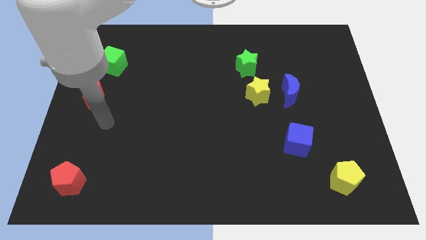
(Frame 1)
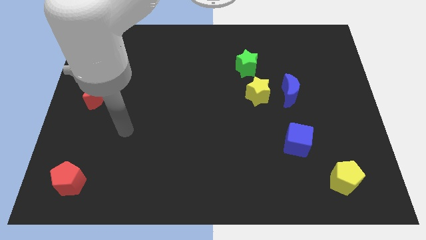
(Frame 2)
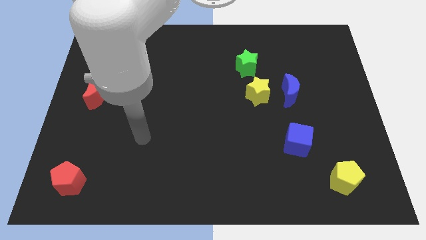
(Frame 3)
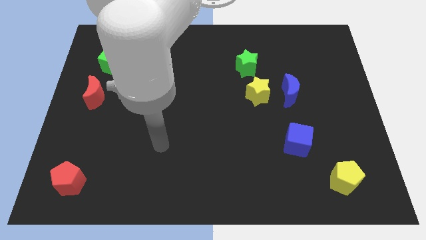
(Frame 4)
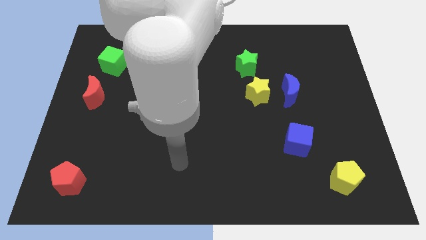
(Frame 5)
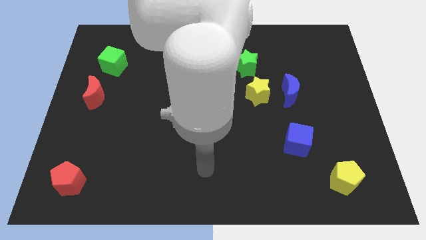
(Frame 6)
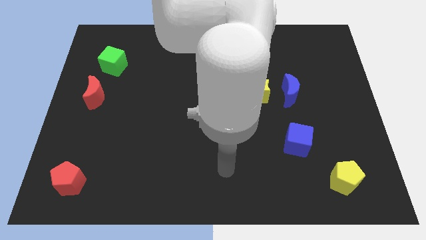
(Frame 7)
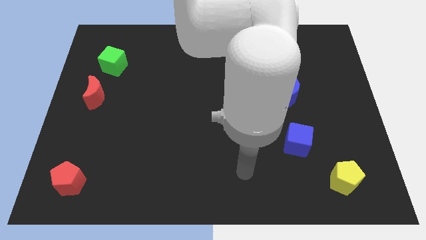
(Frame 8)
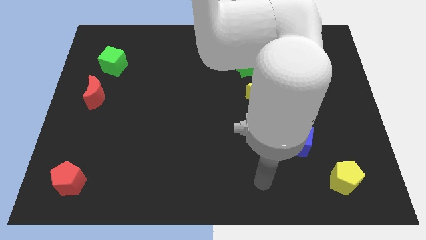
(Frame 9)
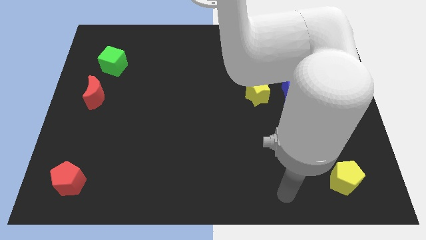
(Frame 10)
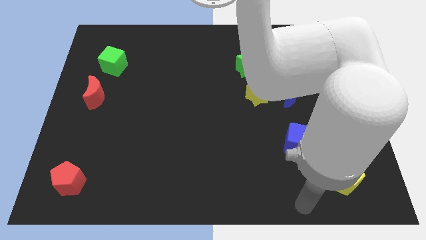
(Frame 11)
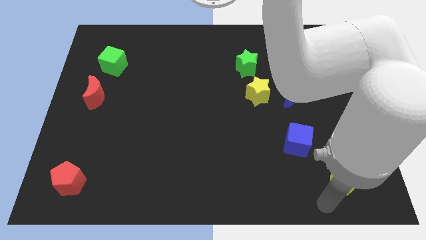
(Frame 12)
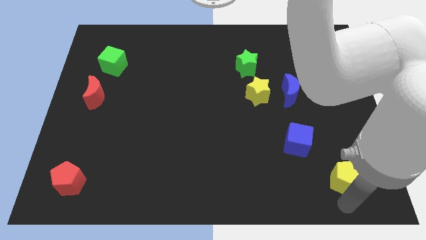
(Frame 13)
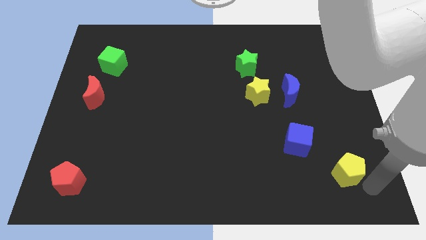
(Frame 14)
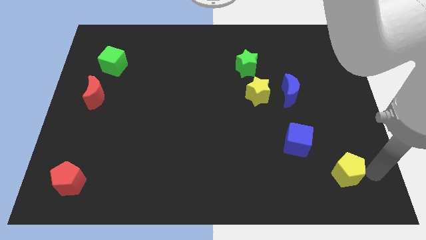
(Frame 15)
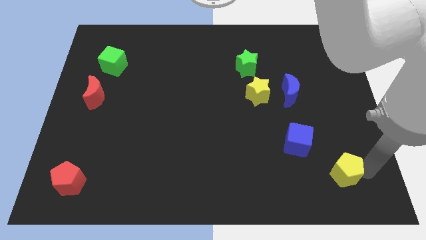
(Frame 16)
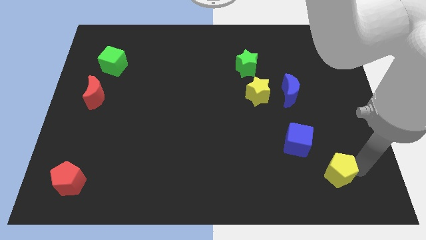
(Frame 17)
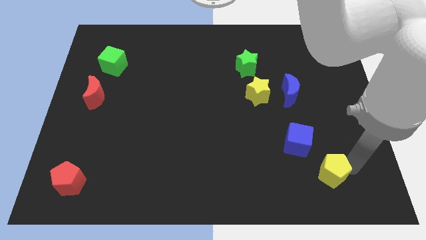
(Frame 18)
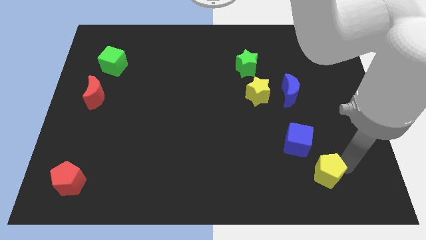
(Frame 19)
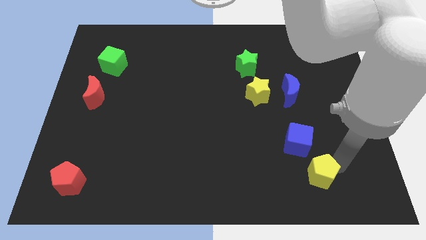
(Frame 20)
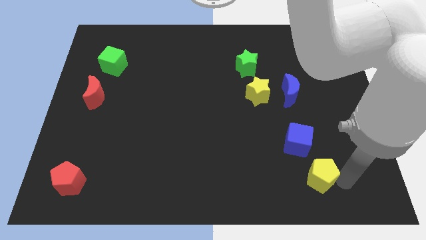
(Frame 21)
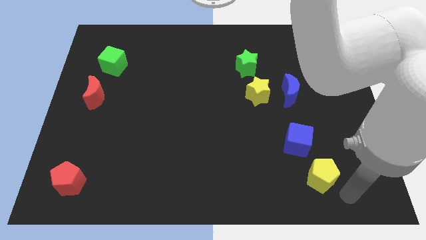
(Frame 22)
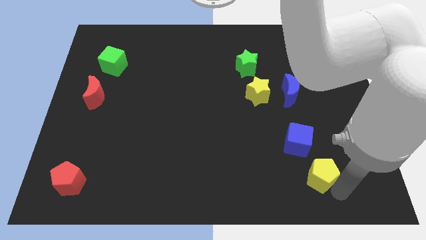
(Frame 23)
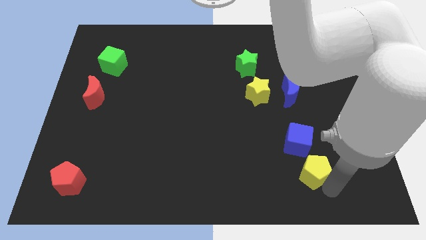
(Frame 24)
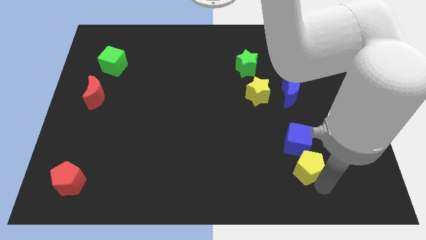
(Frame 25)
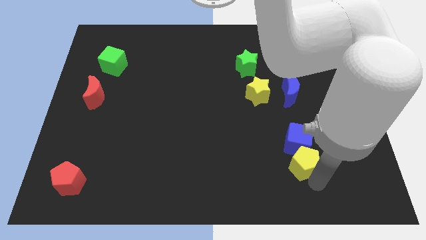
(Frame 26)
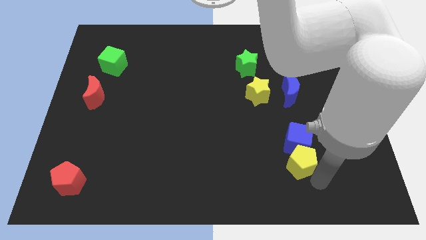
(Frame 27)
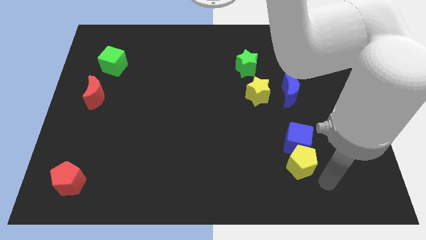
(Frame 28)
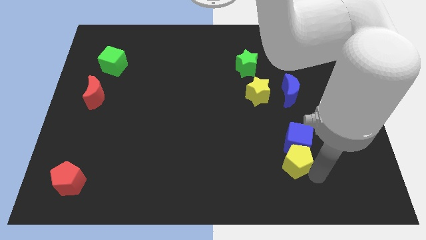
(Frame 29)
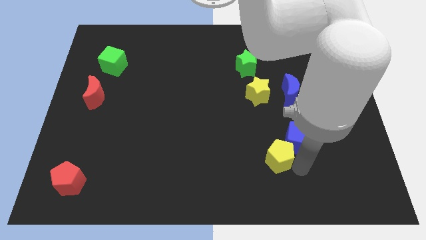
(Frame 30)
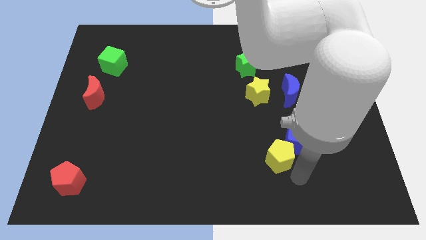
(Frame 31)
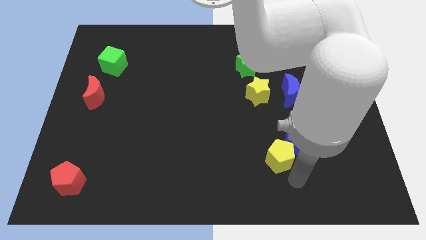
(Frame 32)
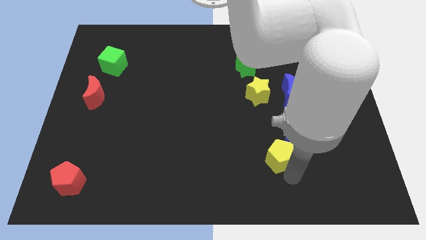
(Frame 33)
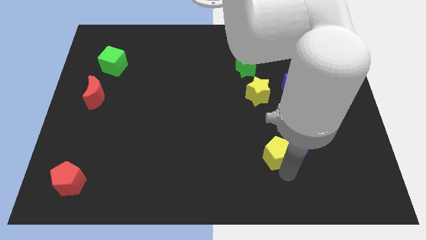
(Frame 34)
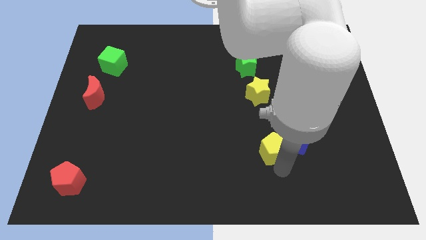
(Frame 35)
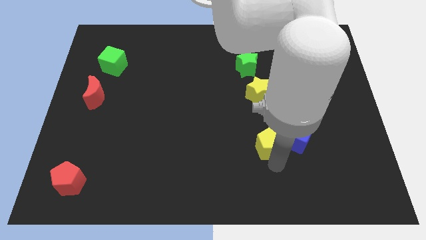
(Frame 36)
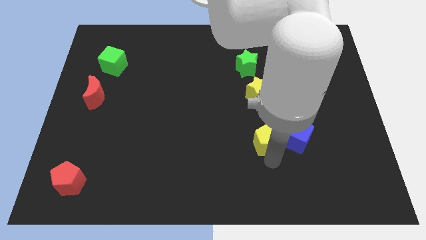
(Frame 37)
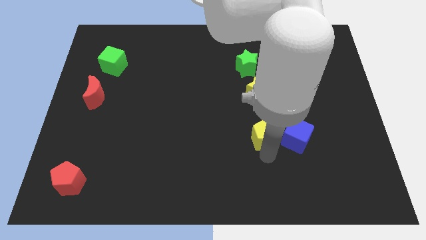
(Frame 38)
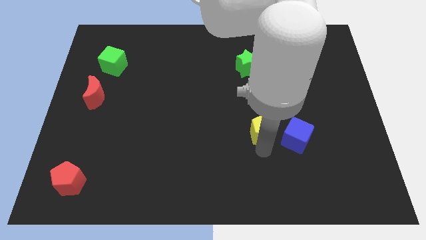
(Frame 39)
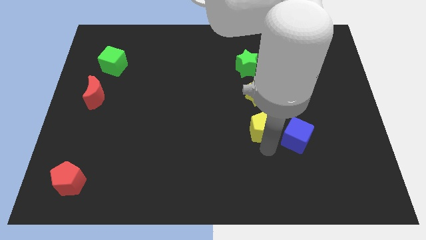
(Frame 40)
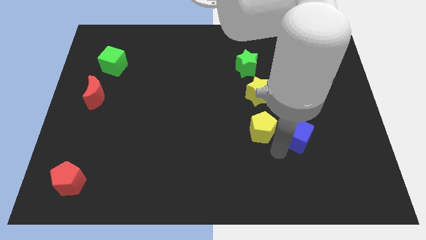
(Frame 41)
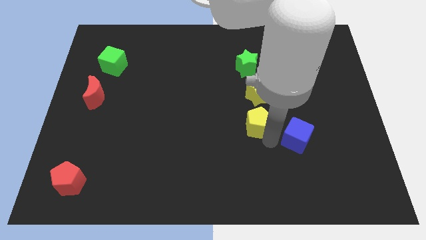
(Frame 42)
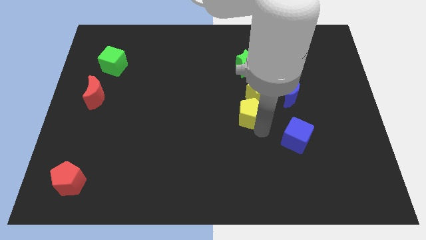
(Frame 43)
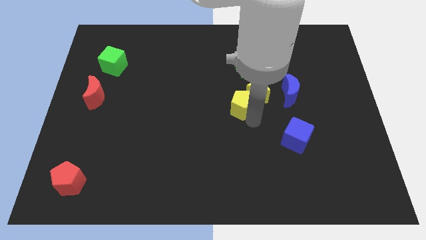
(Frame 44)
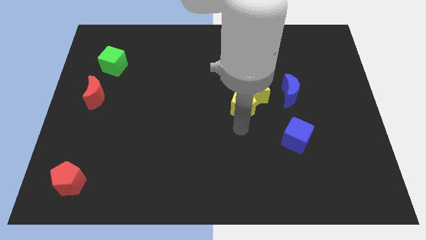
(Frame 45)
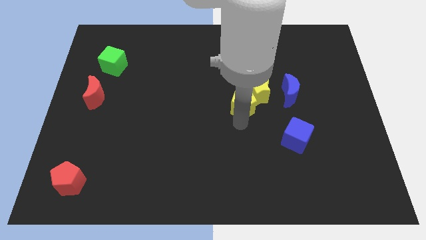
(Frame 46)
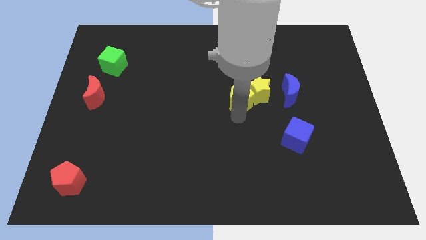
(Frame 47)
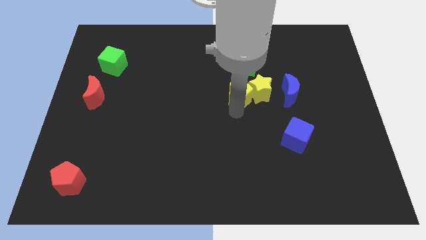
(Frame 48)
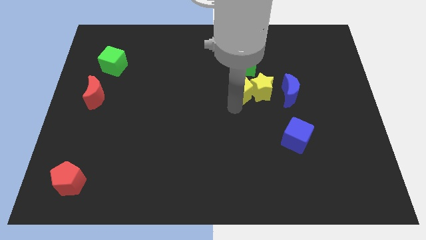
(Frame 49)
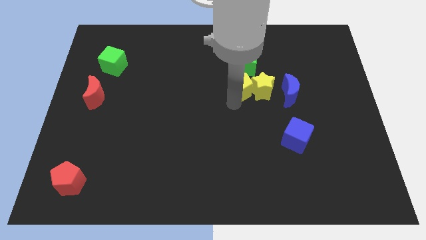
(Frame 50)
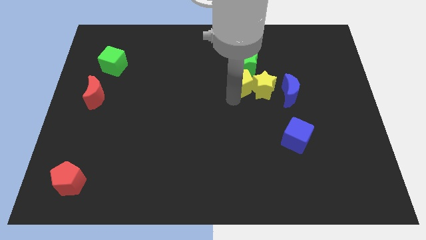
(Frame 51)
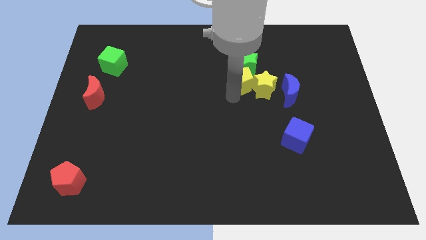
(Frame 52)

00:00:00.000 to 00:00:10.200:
move the yellow pentagon close to the green star

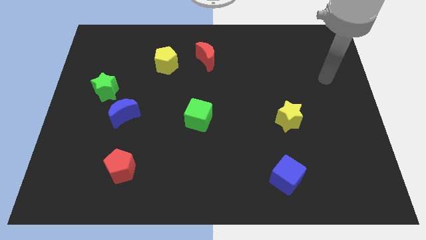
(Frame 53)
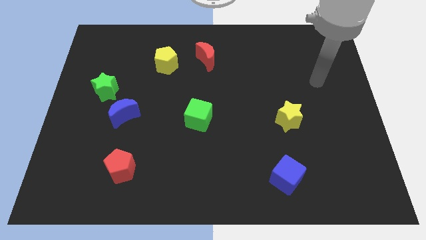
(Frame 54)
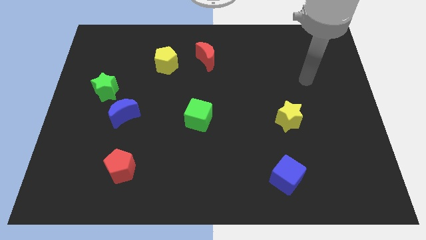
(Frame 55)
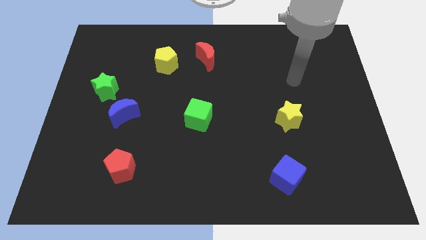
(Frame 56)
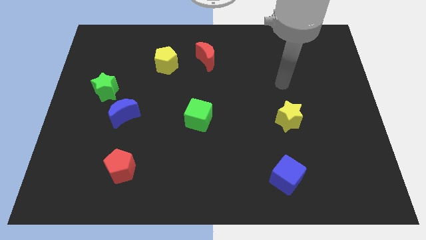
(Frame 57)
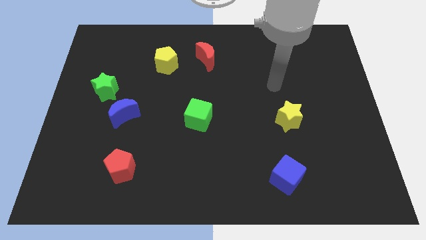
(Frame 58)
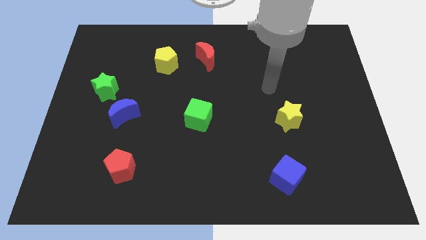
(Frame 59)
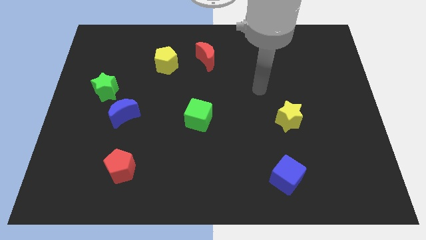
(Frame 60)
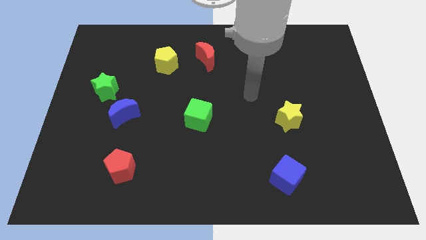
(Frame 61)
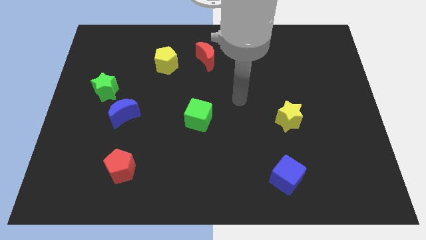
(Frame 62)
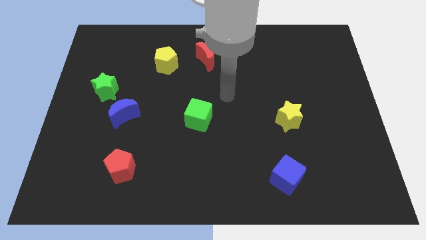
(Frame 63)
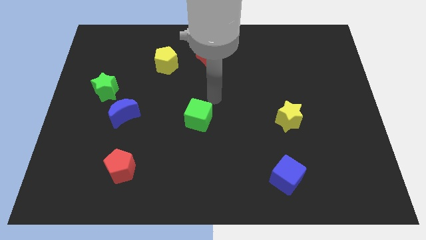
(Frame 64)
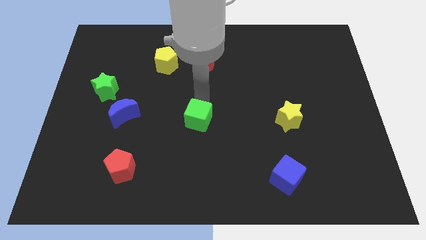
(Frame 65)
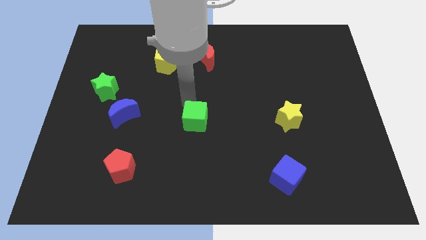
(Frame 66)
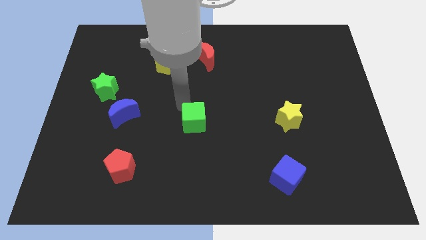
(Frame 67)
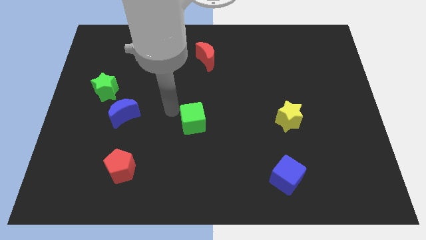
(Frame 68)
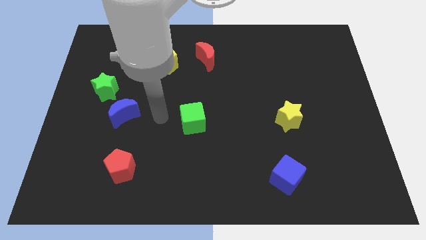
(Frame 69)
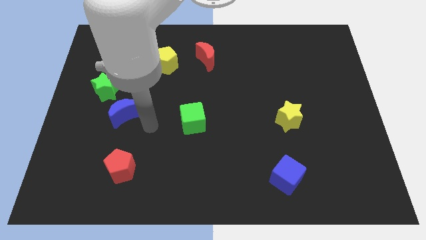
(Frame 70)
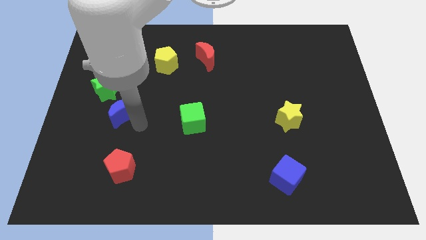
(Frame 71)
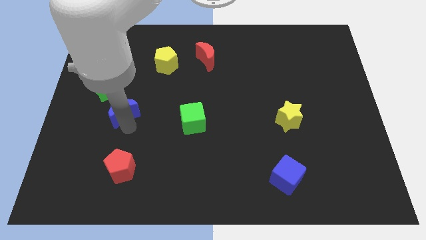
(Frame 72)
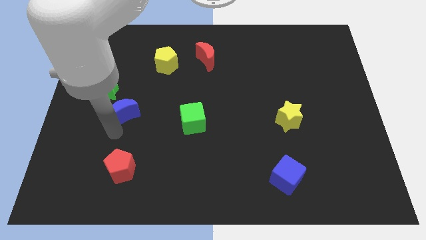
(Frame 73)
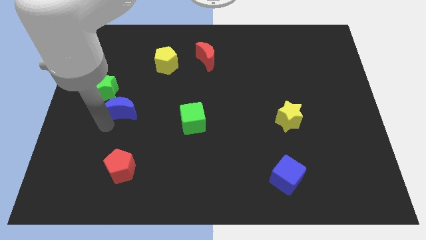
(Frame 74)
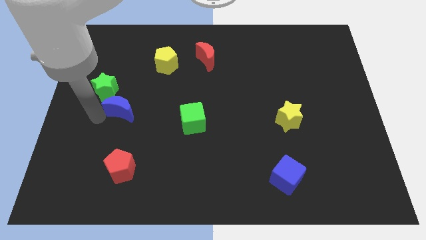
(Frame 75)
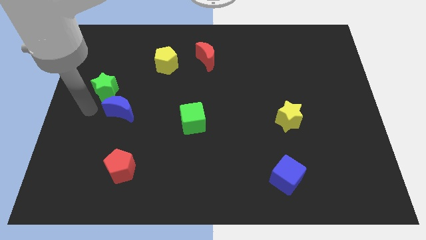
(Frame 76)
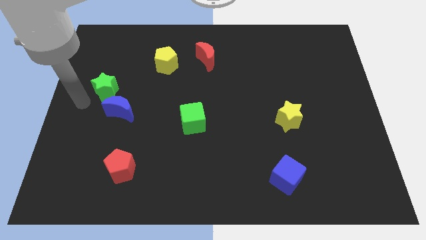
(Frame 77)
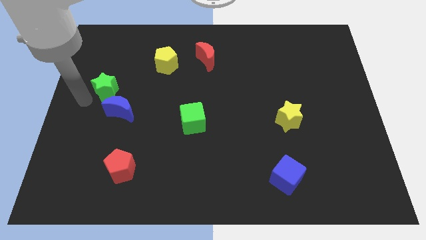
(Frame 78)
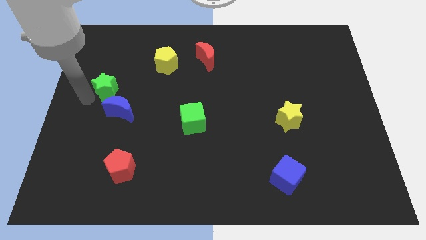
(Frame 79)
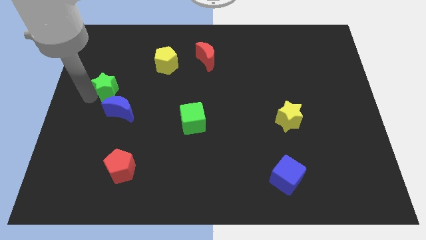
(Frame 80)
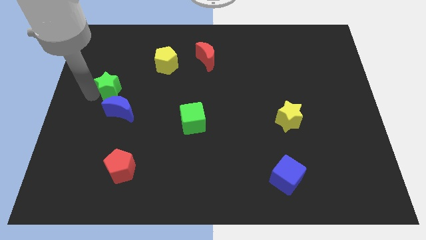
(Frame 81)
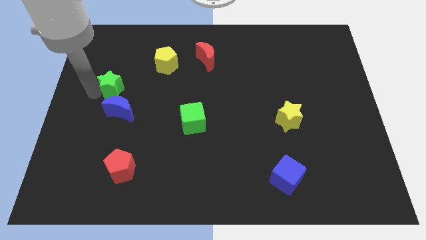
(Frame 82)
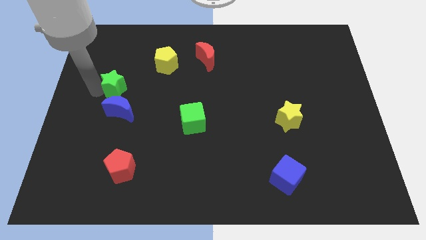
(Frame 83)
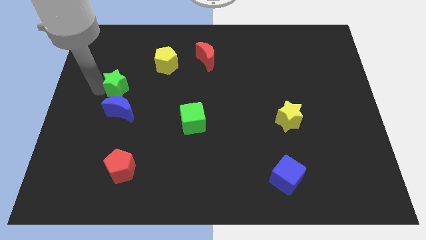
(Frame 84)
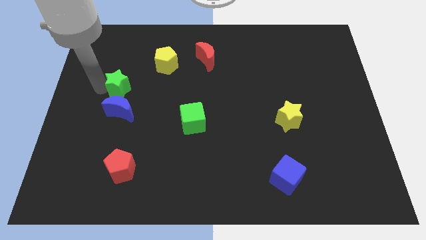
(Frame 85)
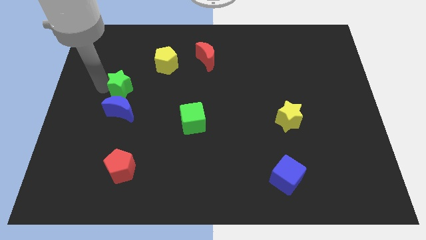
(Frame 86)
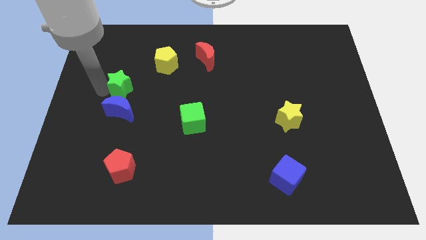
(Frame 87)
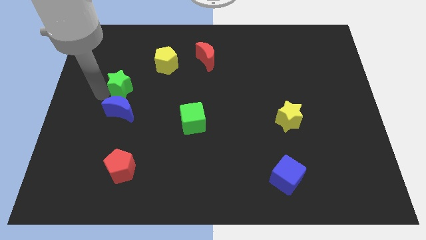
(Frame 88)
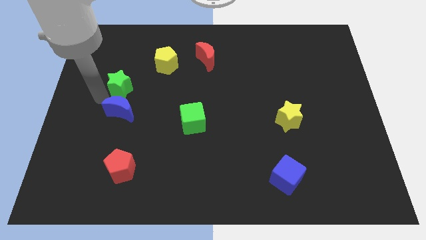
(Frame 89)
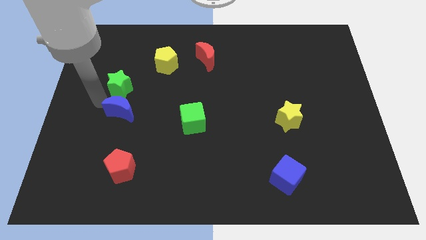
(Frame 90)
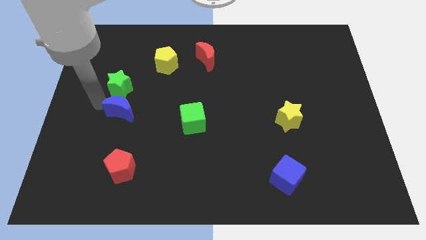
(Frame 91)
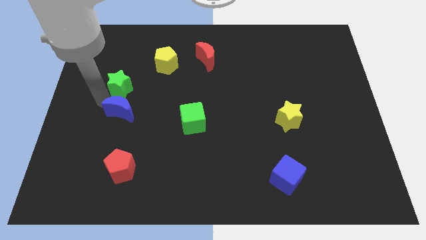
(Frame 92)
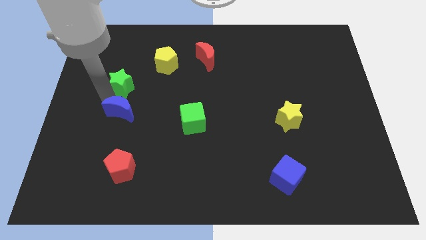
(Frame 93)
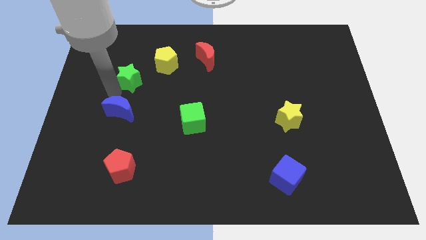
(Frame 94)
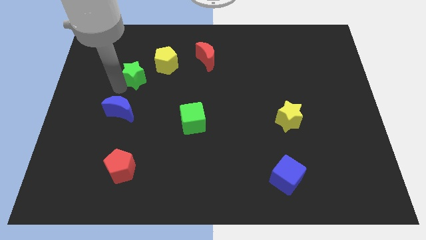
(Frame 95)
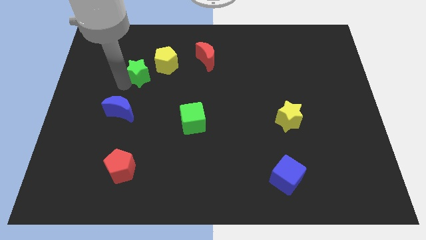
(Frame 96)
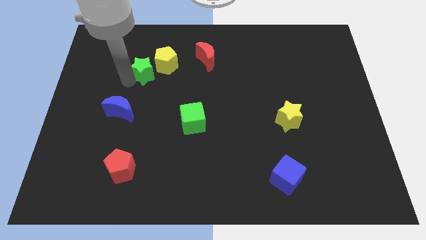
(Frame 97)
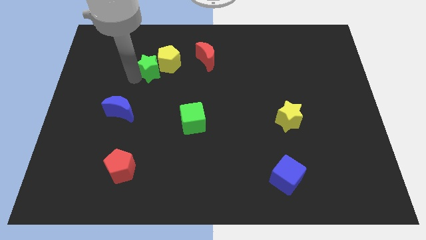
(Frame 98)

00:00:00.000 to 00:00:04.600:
push the green star close to the yellow pentagon
